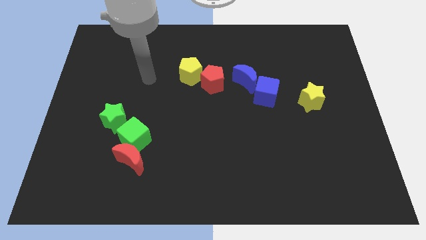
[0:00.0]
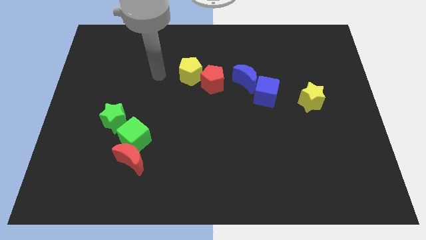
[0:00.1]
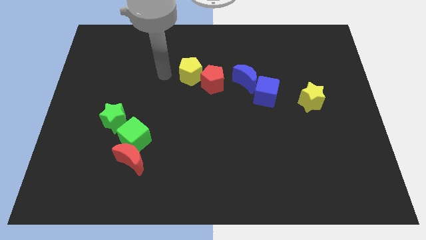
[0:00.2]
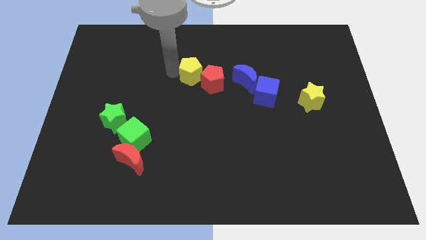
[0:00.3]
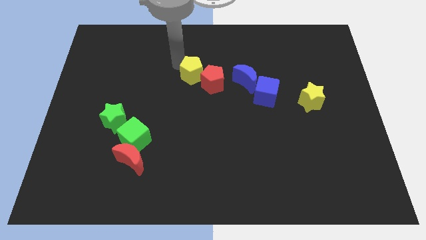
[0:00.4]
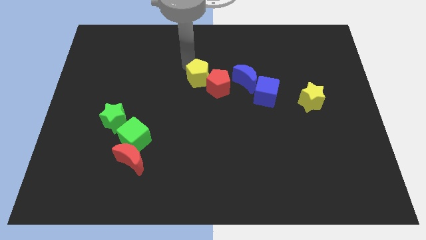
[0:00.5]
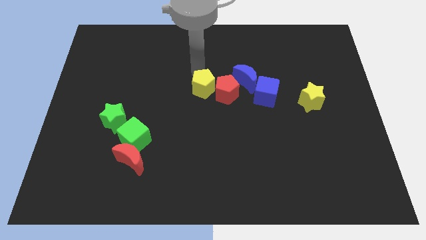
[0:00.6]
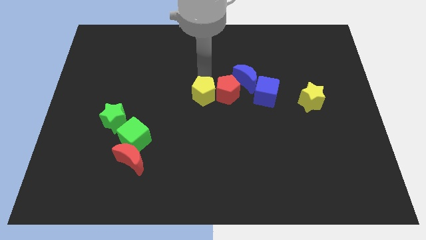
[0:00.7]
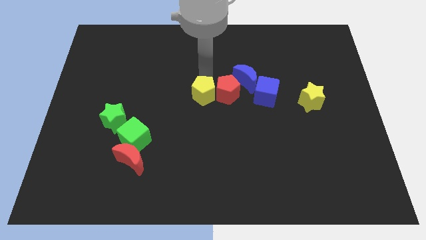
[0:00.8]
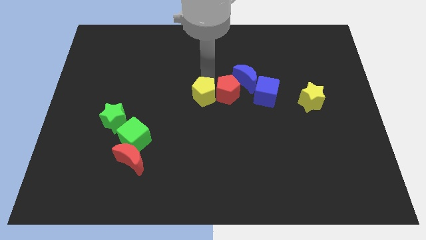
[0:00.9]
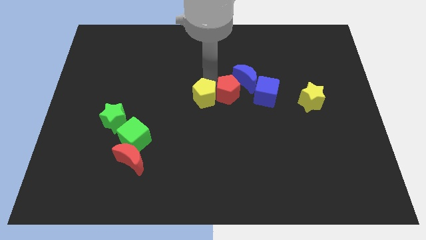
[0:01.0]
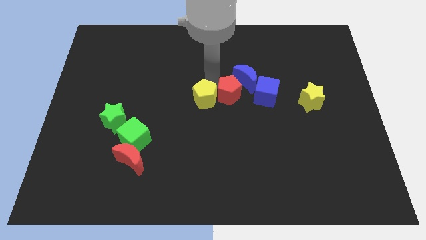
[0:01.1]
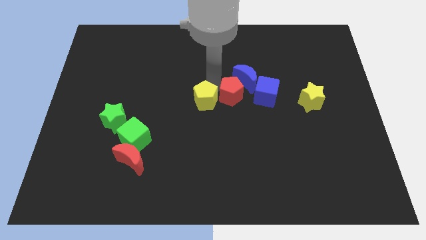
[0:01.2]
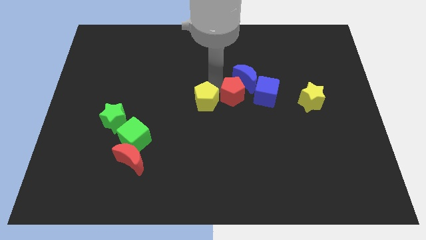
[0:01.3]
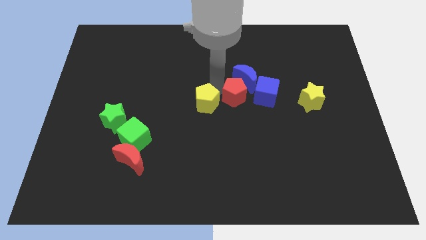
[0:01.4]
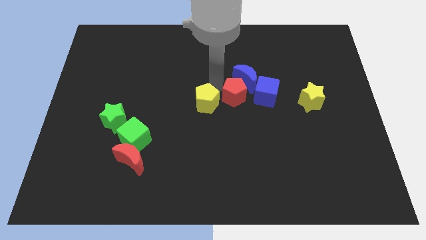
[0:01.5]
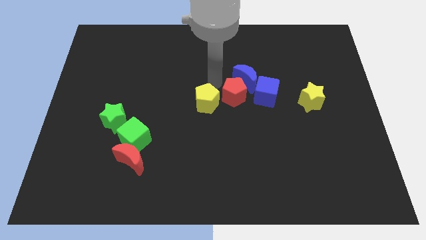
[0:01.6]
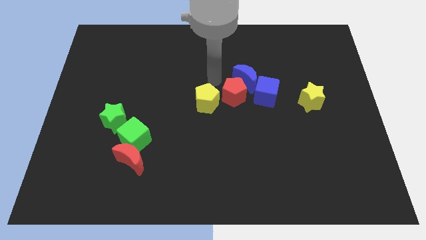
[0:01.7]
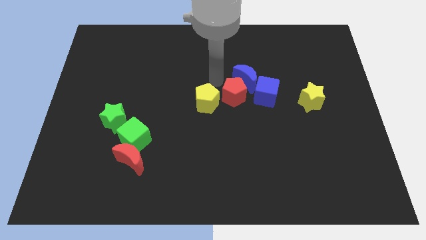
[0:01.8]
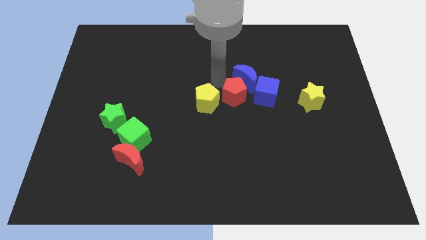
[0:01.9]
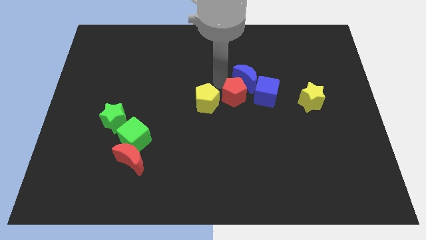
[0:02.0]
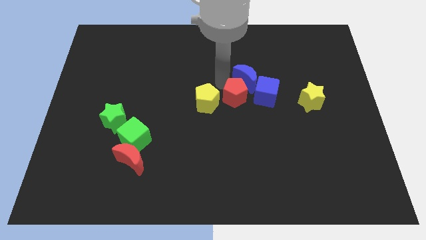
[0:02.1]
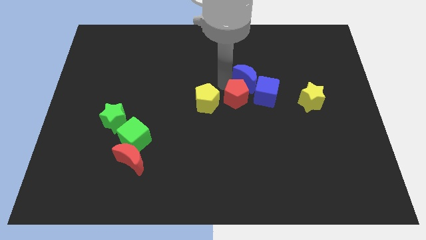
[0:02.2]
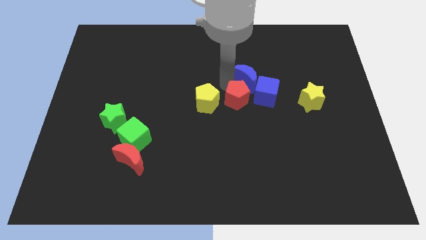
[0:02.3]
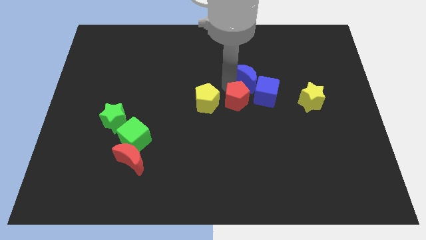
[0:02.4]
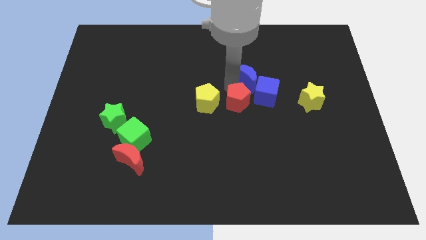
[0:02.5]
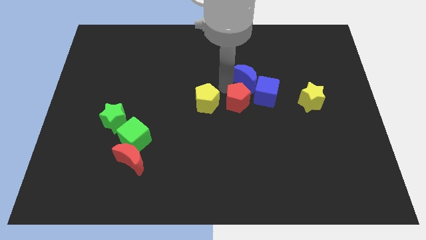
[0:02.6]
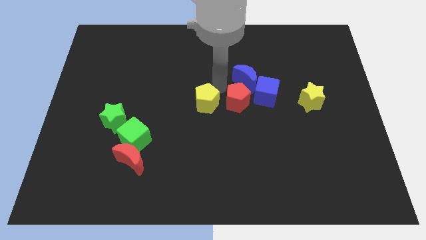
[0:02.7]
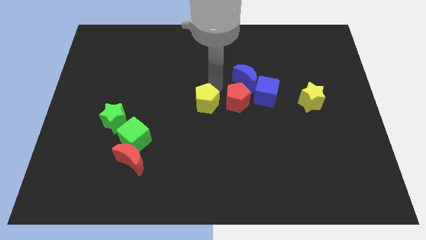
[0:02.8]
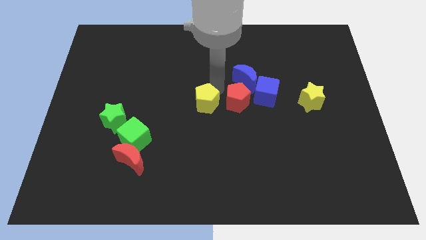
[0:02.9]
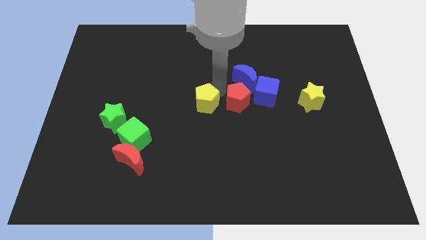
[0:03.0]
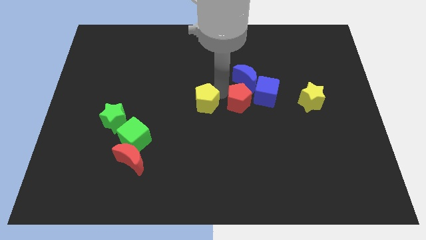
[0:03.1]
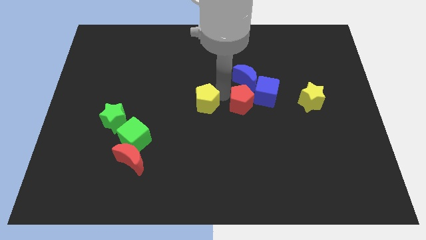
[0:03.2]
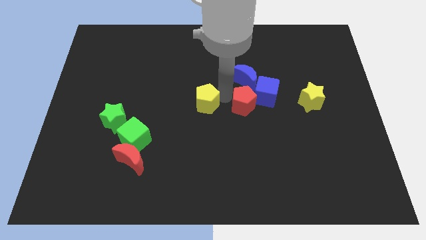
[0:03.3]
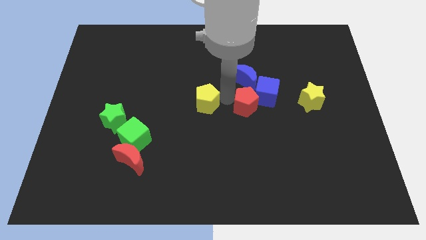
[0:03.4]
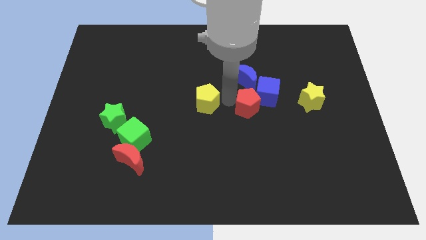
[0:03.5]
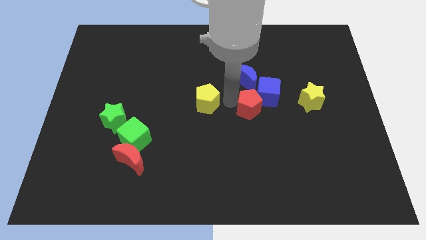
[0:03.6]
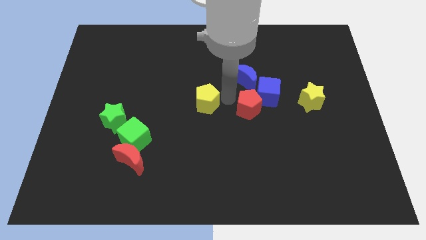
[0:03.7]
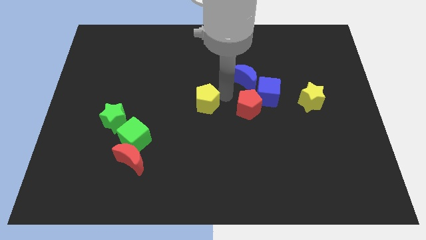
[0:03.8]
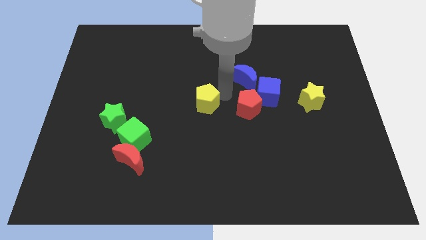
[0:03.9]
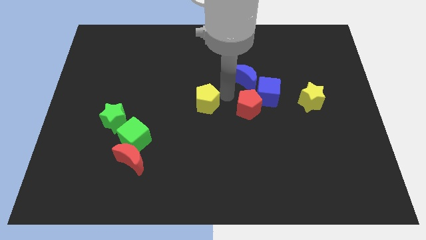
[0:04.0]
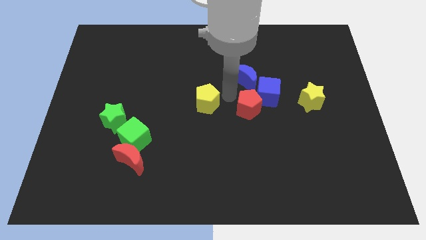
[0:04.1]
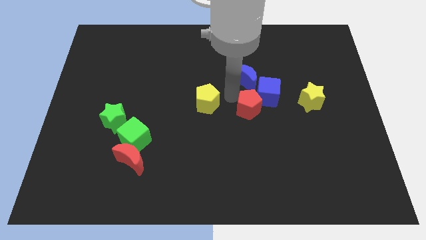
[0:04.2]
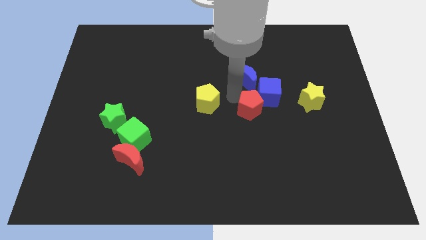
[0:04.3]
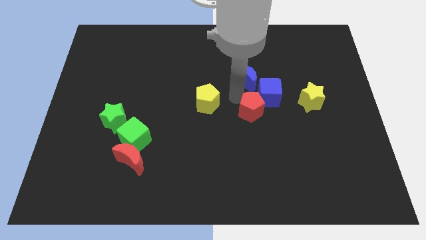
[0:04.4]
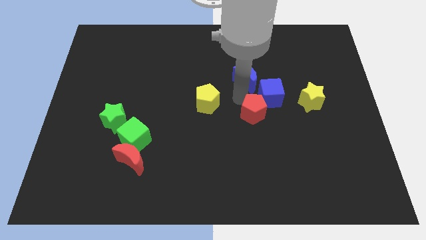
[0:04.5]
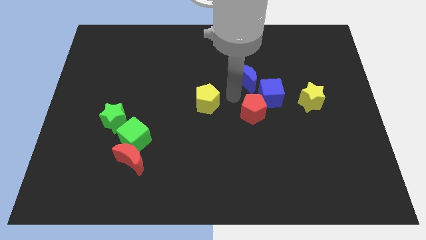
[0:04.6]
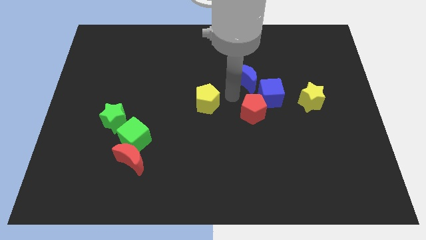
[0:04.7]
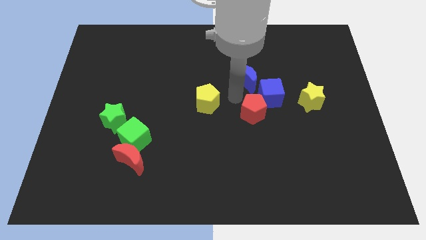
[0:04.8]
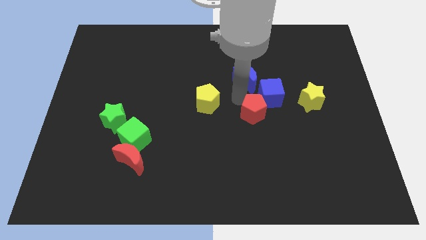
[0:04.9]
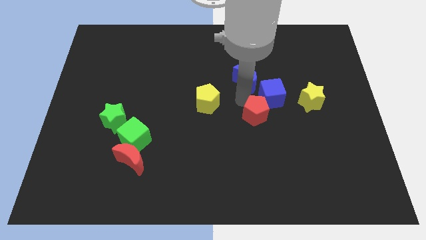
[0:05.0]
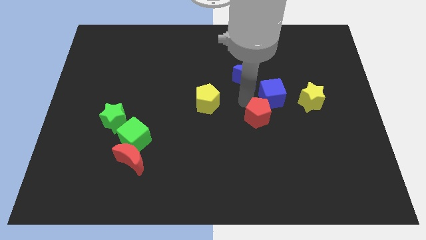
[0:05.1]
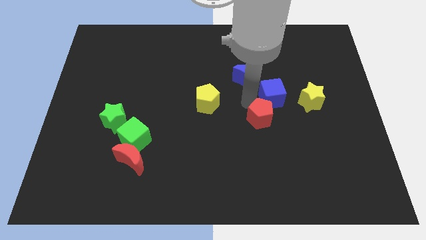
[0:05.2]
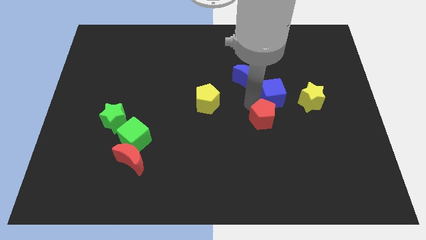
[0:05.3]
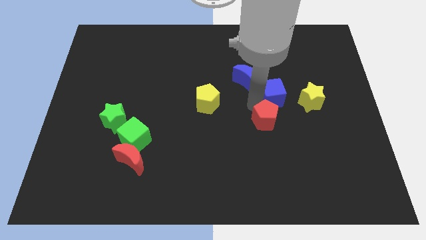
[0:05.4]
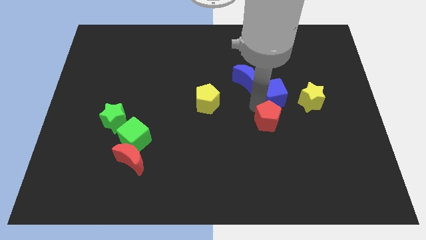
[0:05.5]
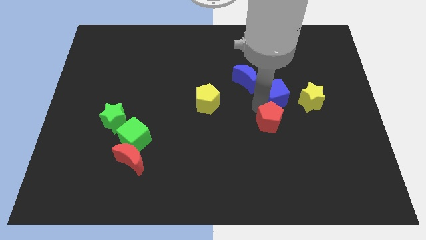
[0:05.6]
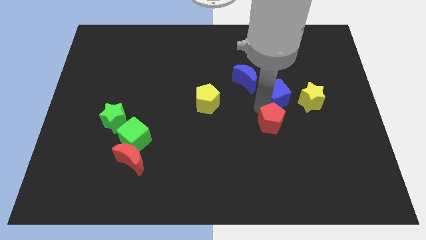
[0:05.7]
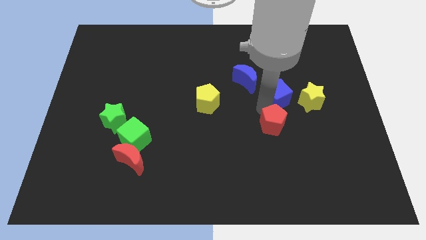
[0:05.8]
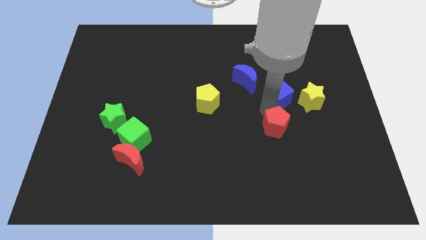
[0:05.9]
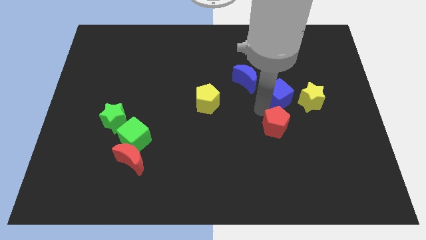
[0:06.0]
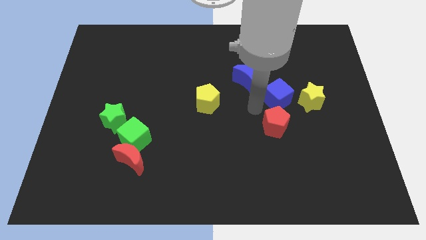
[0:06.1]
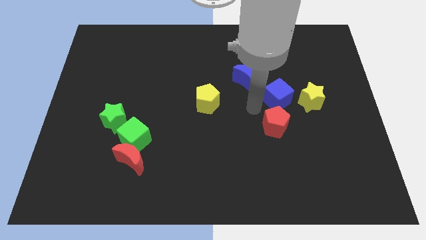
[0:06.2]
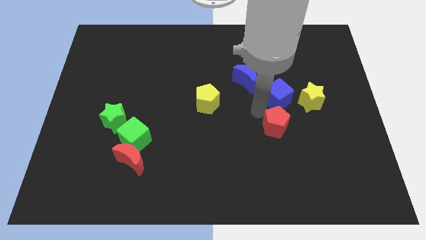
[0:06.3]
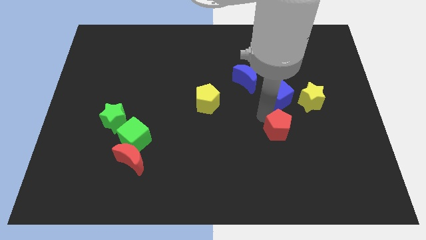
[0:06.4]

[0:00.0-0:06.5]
slide the red pentagon down and right diagonally

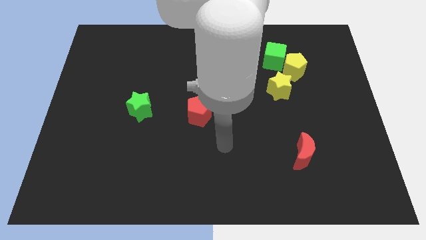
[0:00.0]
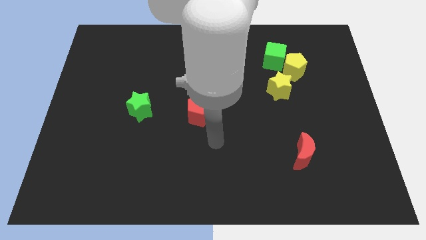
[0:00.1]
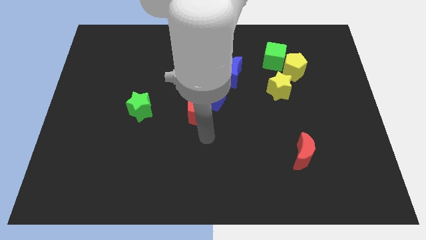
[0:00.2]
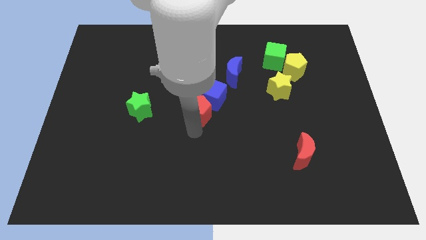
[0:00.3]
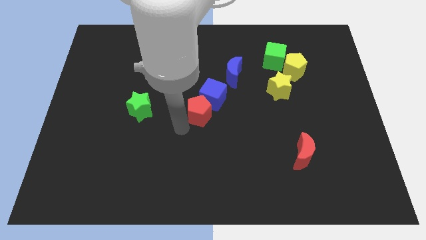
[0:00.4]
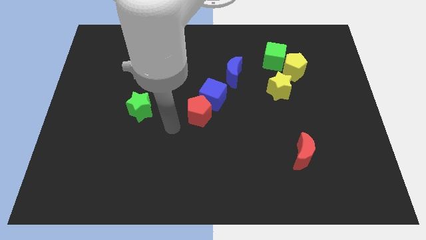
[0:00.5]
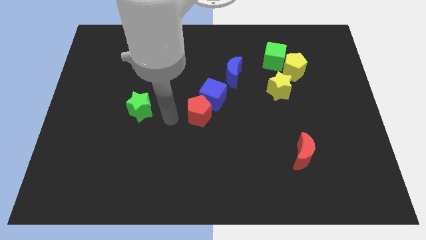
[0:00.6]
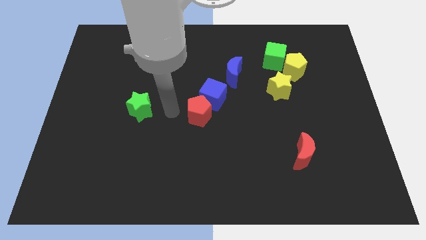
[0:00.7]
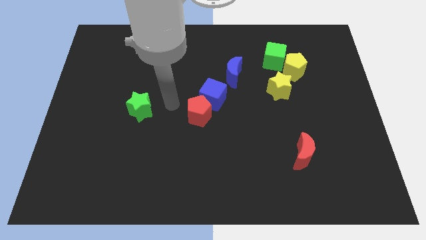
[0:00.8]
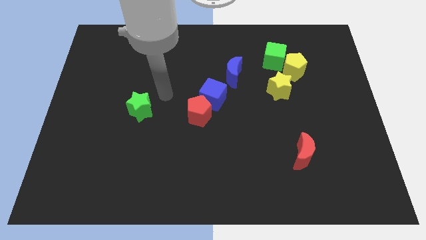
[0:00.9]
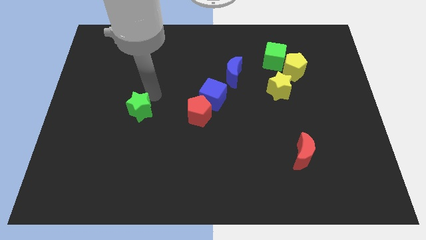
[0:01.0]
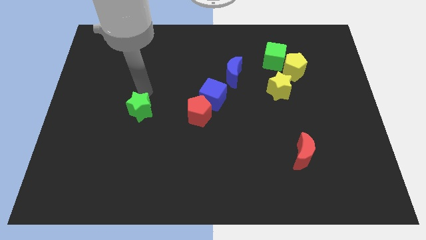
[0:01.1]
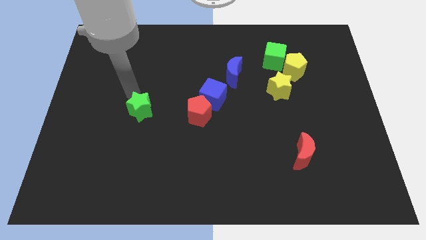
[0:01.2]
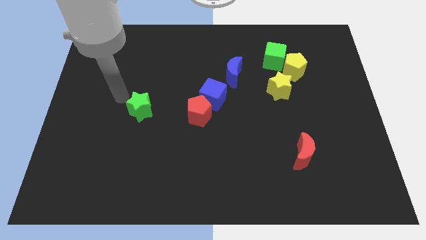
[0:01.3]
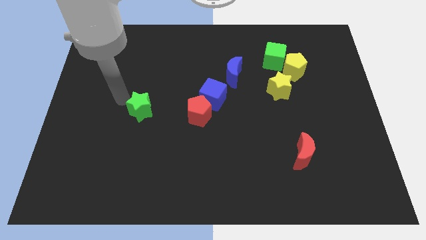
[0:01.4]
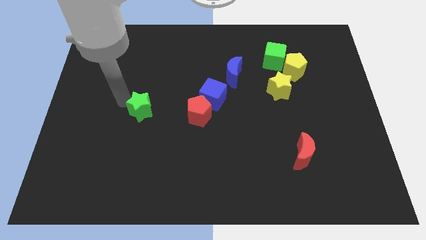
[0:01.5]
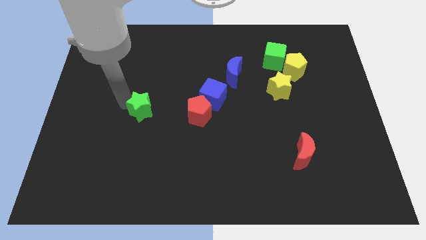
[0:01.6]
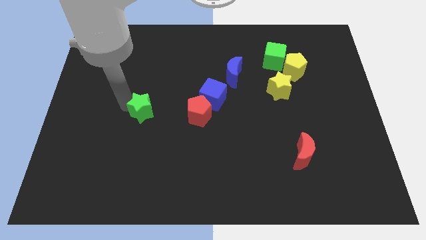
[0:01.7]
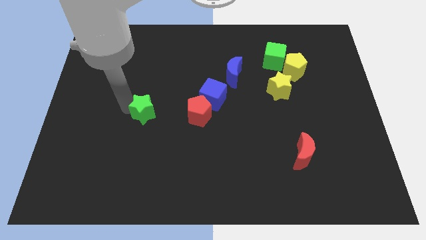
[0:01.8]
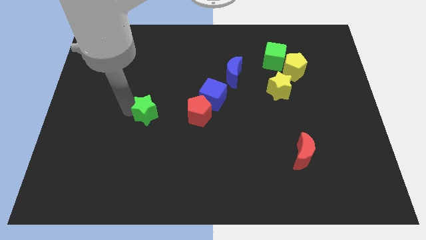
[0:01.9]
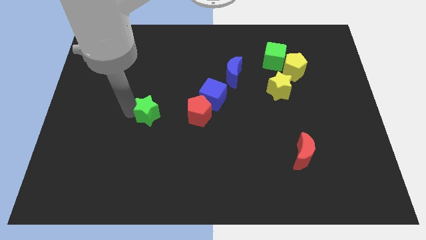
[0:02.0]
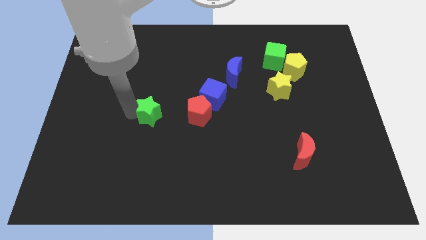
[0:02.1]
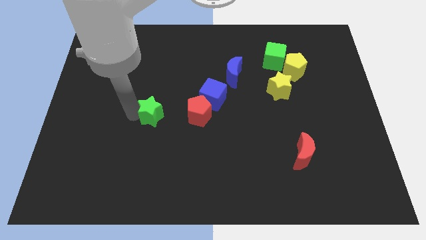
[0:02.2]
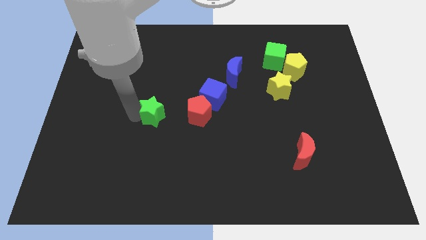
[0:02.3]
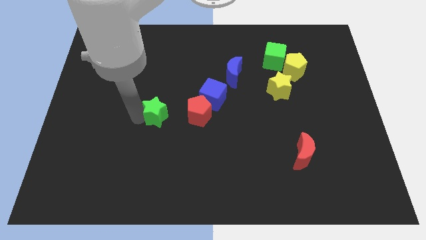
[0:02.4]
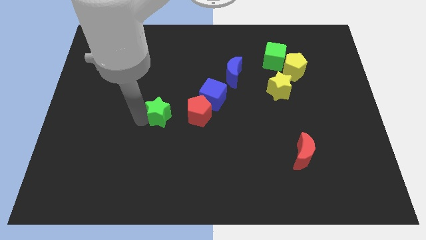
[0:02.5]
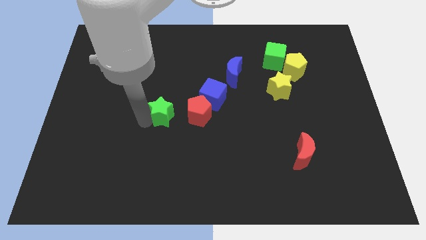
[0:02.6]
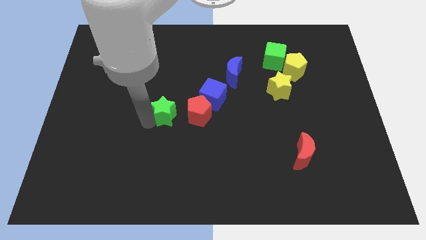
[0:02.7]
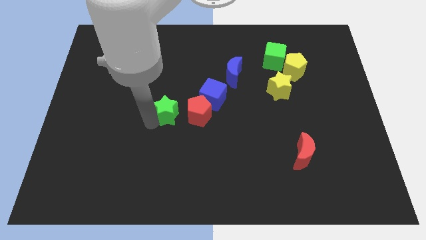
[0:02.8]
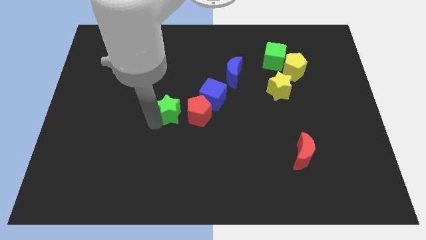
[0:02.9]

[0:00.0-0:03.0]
slightly move the green star right
